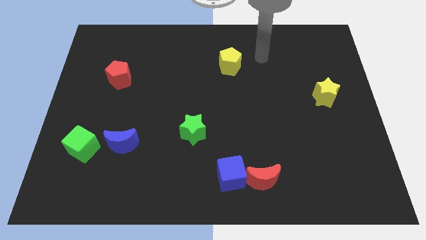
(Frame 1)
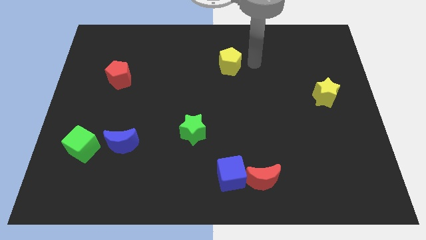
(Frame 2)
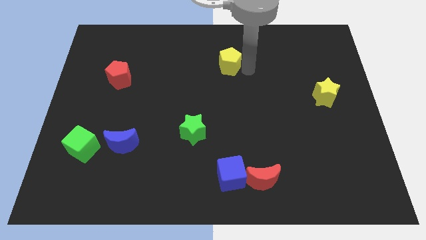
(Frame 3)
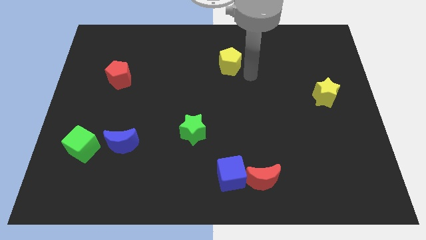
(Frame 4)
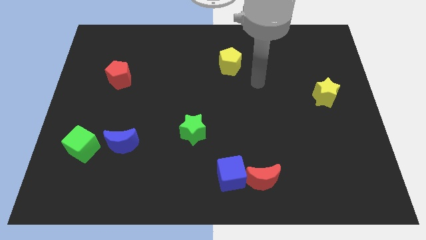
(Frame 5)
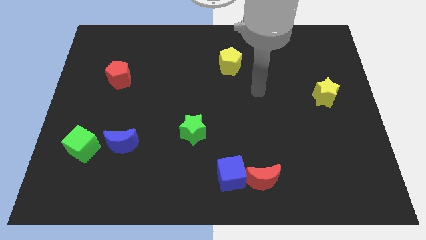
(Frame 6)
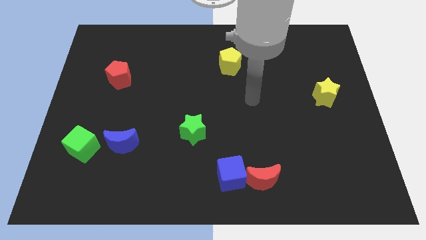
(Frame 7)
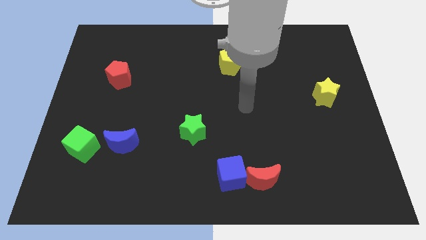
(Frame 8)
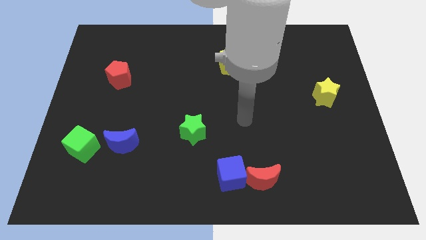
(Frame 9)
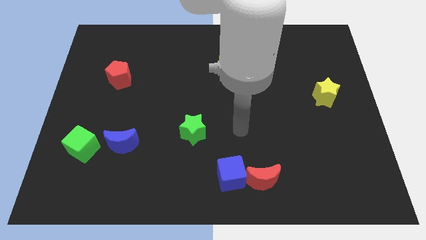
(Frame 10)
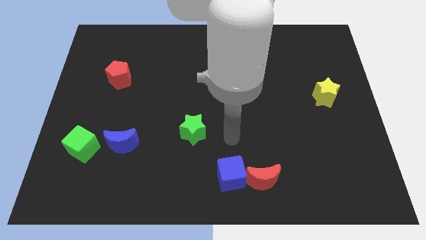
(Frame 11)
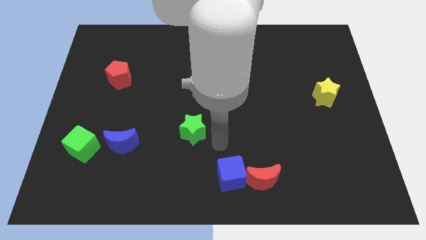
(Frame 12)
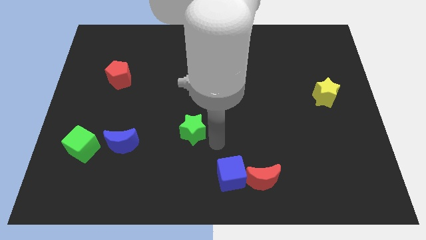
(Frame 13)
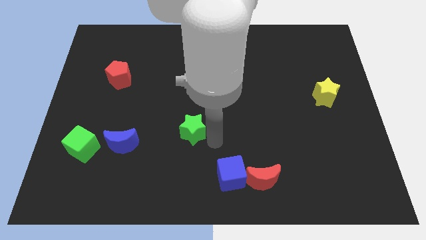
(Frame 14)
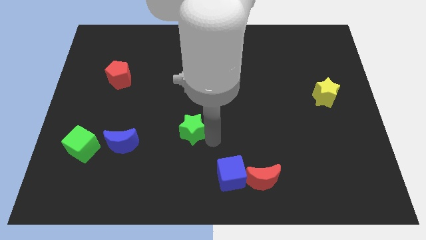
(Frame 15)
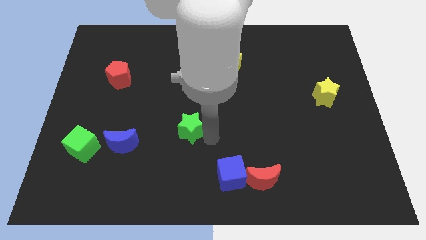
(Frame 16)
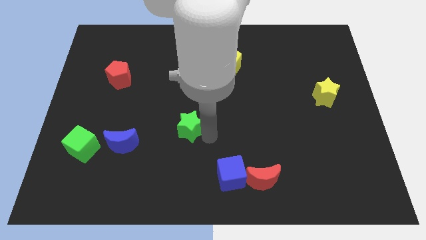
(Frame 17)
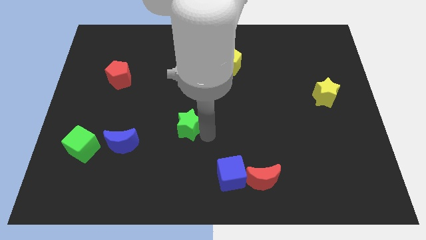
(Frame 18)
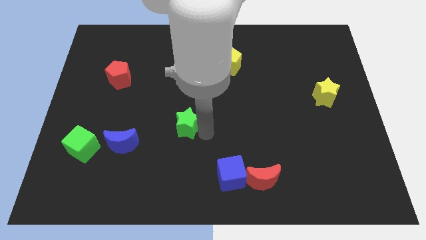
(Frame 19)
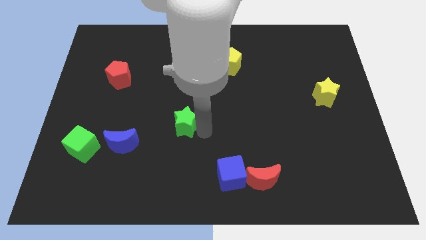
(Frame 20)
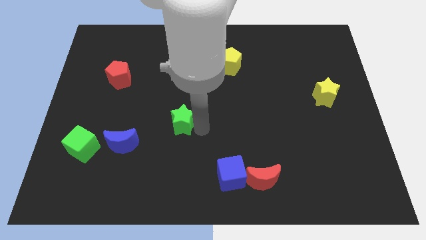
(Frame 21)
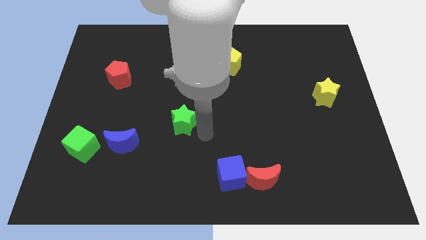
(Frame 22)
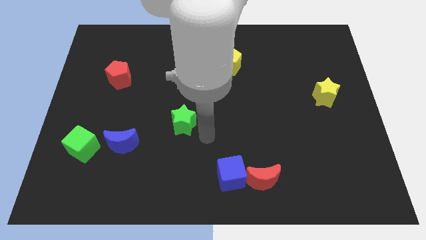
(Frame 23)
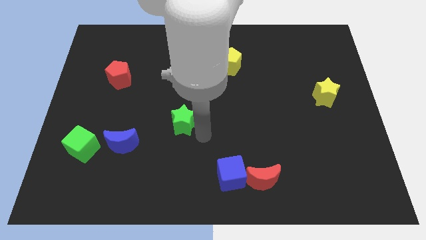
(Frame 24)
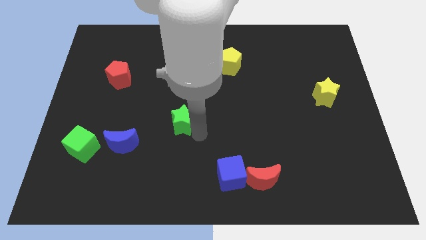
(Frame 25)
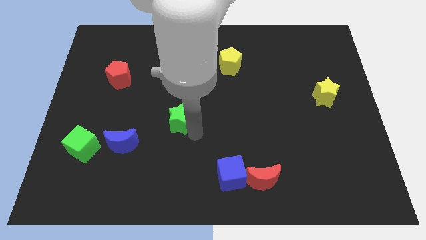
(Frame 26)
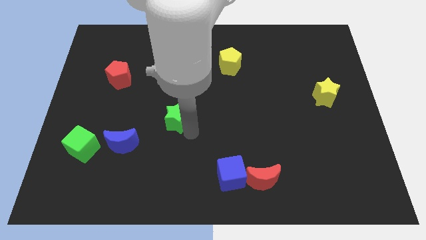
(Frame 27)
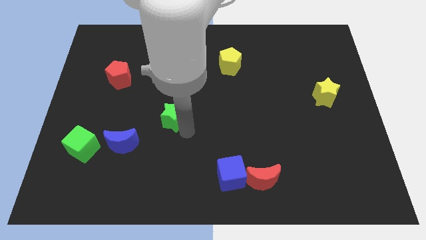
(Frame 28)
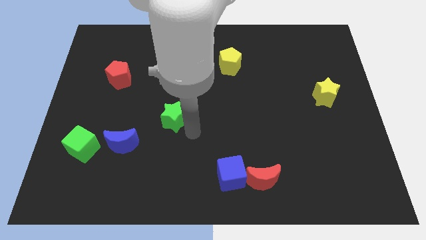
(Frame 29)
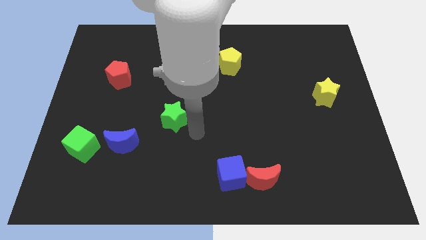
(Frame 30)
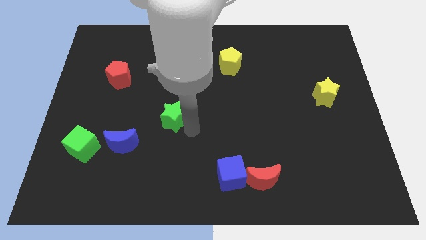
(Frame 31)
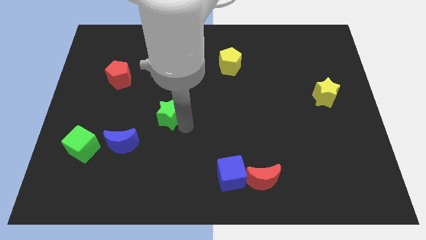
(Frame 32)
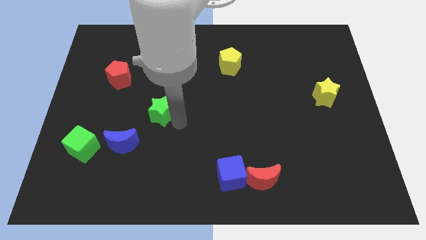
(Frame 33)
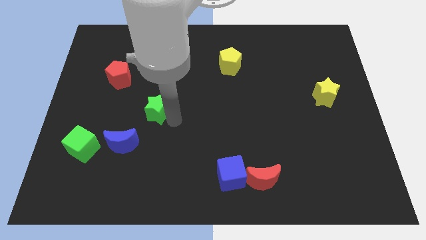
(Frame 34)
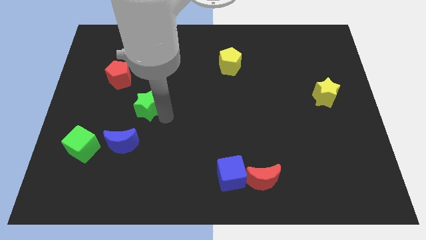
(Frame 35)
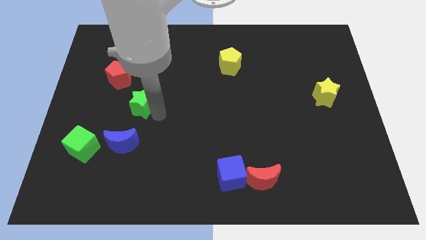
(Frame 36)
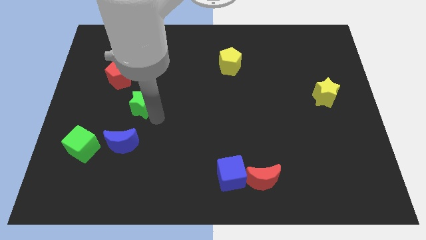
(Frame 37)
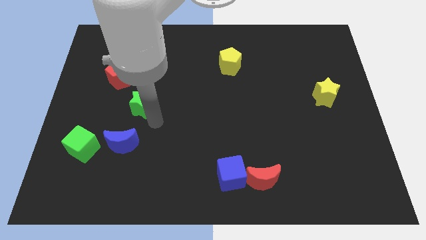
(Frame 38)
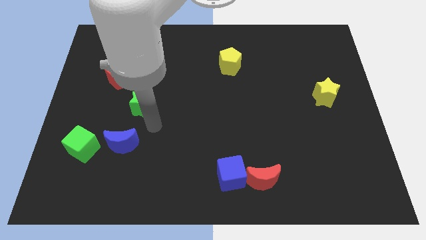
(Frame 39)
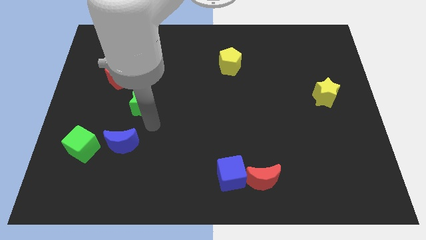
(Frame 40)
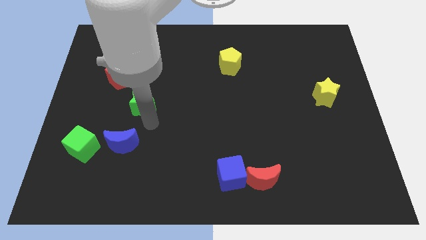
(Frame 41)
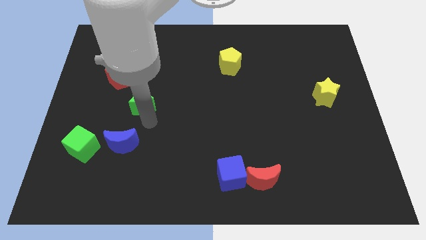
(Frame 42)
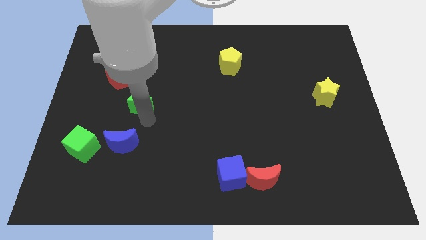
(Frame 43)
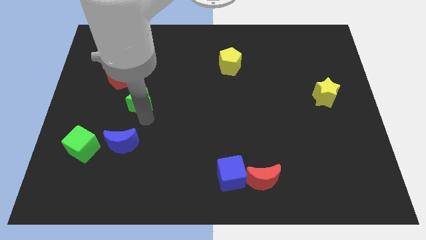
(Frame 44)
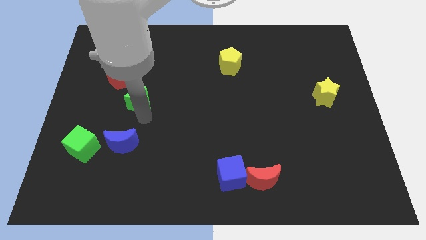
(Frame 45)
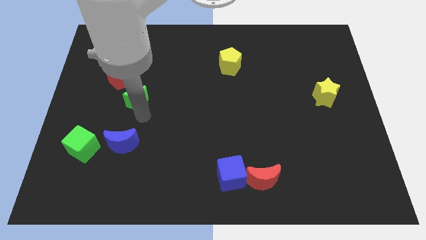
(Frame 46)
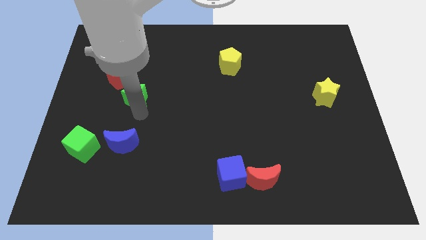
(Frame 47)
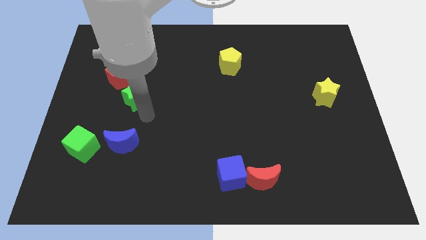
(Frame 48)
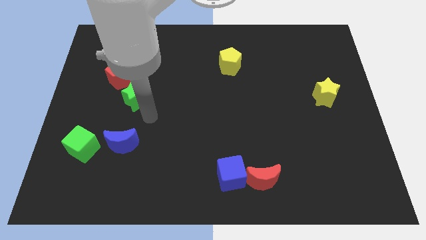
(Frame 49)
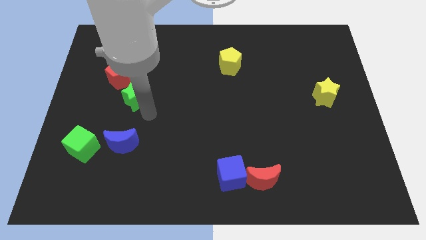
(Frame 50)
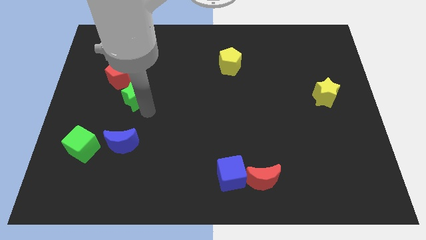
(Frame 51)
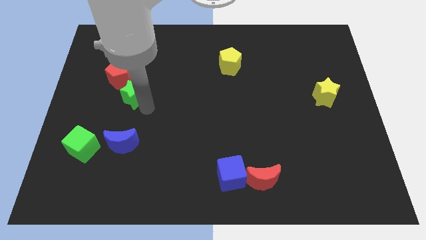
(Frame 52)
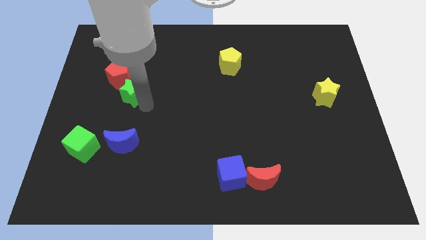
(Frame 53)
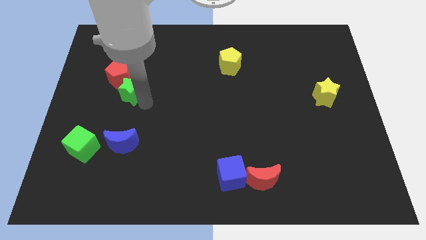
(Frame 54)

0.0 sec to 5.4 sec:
slide the green star next to the red pentagon

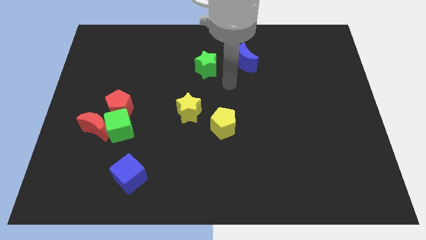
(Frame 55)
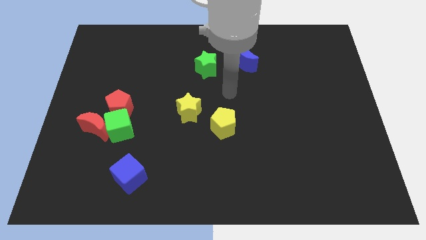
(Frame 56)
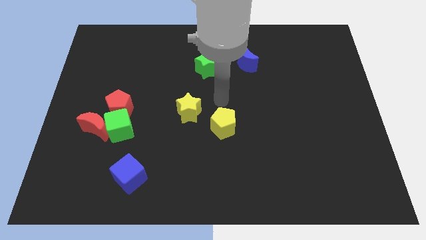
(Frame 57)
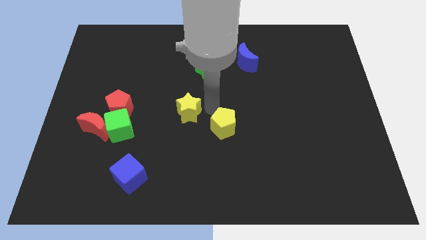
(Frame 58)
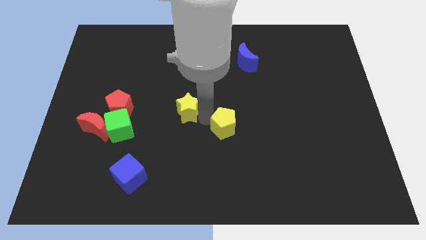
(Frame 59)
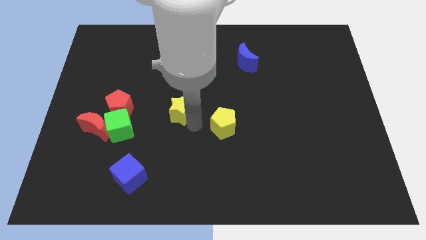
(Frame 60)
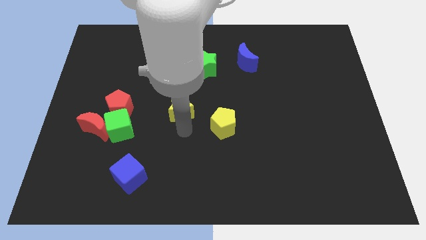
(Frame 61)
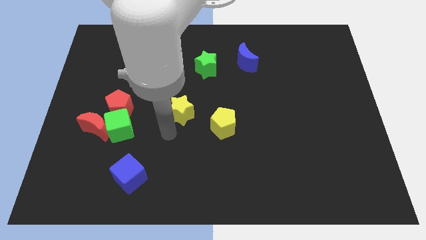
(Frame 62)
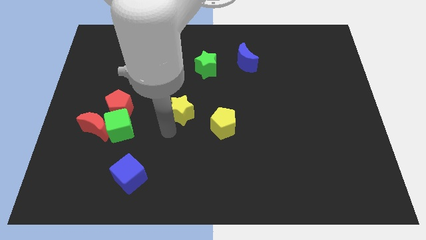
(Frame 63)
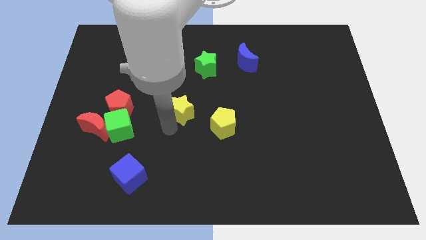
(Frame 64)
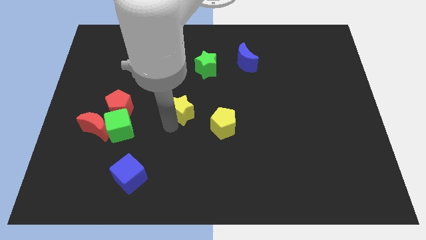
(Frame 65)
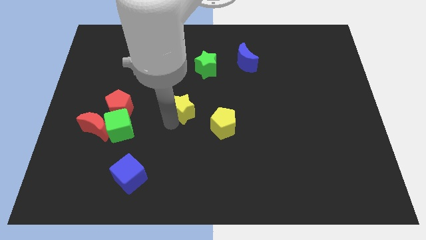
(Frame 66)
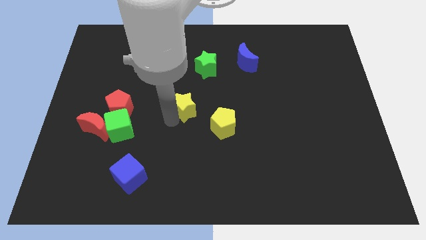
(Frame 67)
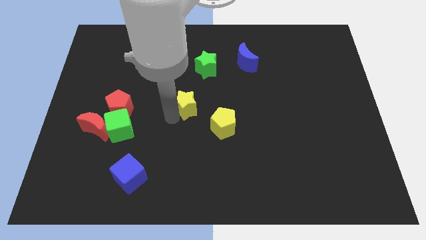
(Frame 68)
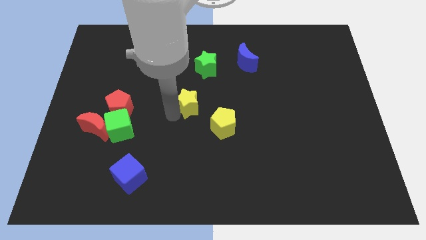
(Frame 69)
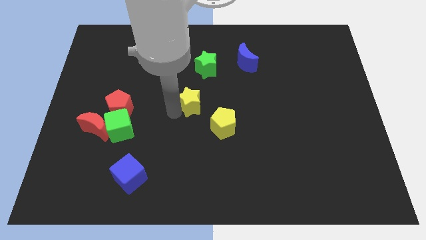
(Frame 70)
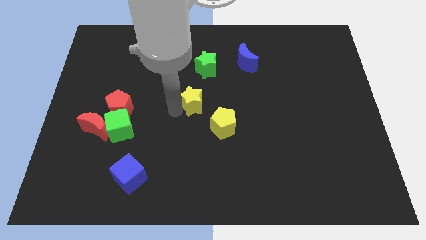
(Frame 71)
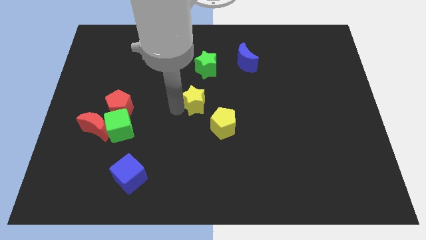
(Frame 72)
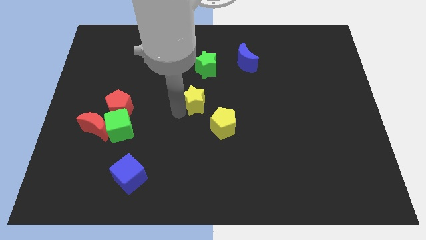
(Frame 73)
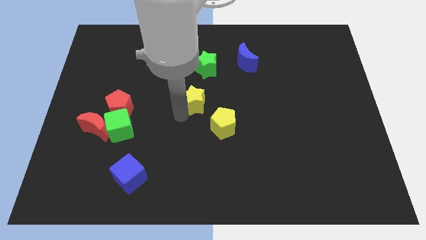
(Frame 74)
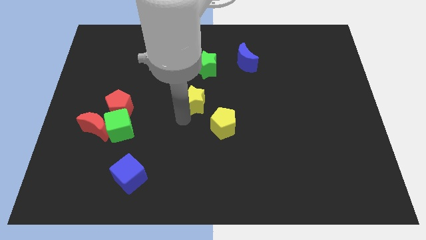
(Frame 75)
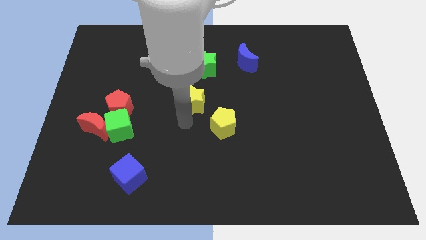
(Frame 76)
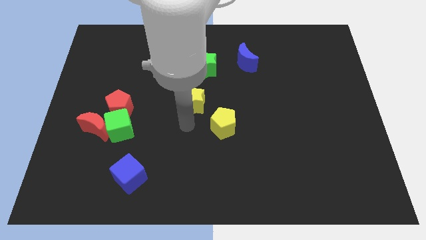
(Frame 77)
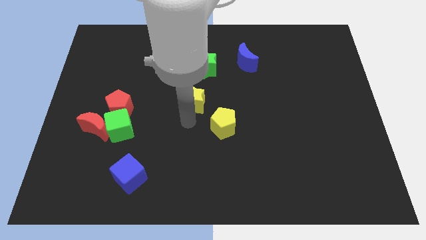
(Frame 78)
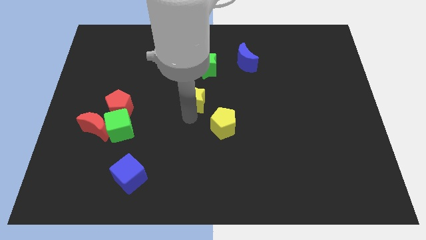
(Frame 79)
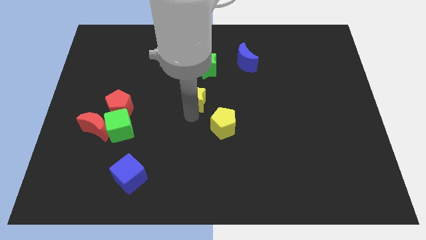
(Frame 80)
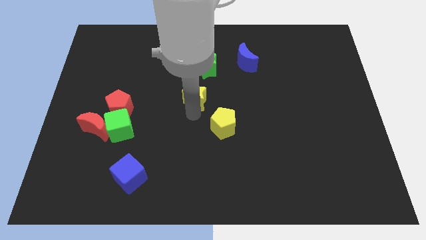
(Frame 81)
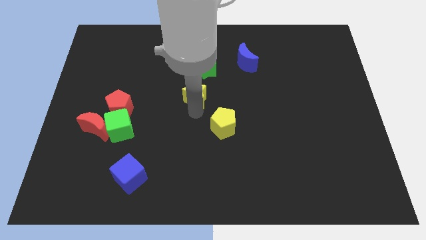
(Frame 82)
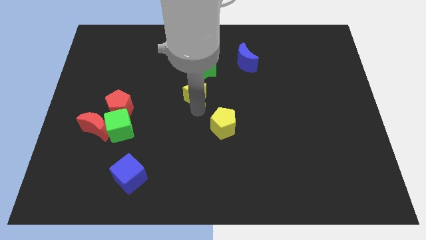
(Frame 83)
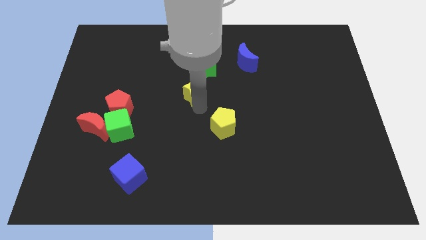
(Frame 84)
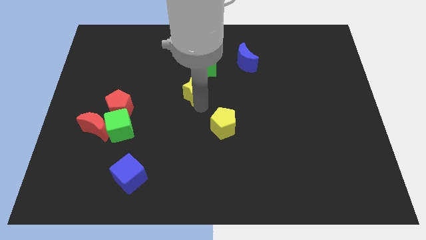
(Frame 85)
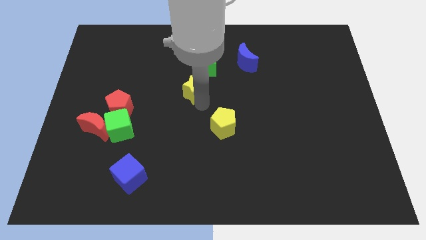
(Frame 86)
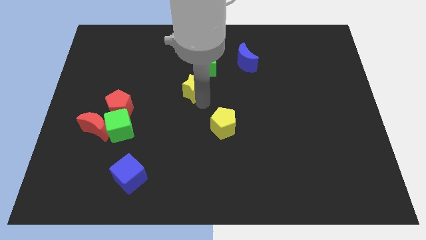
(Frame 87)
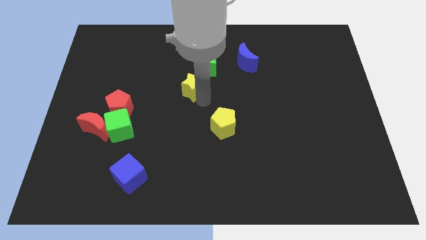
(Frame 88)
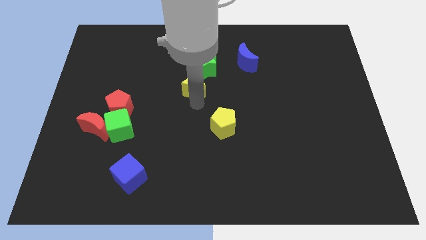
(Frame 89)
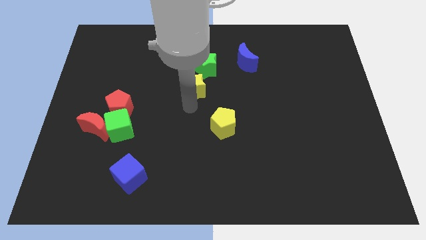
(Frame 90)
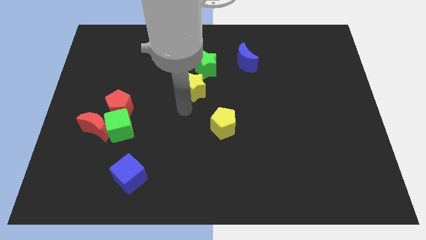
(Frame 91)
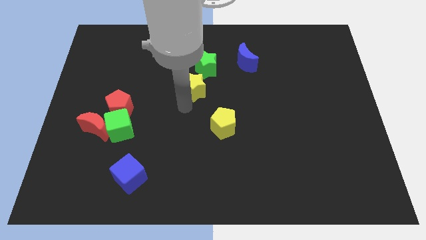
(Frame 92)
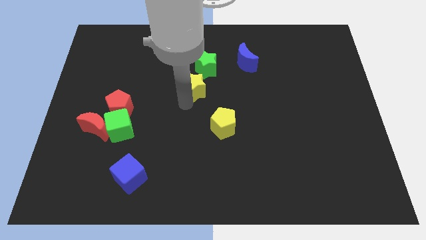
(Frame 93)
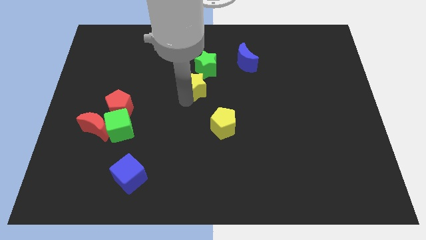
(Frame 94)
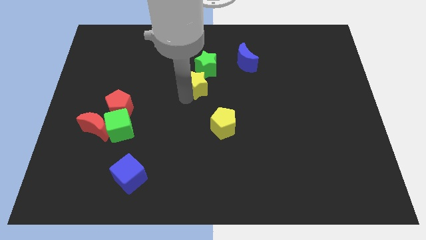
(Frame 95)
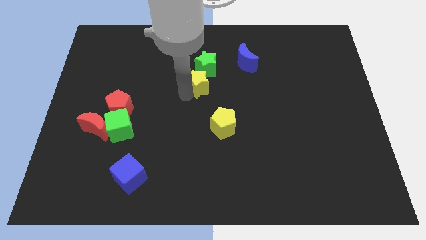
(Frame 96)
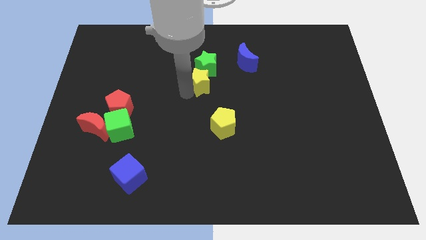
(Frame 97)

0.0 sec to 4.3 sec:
slide the yellow star close to the green star
